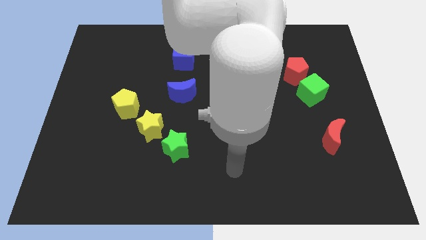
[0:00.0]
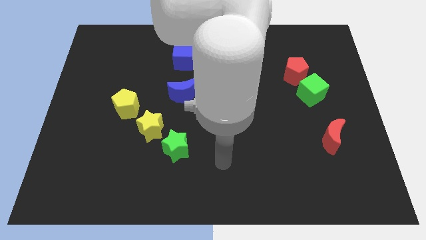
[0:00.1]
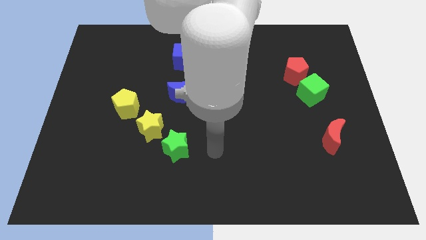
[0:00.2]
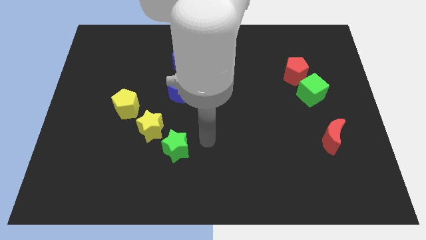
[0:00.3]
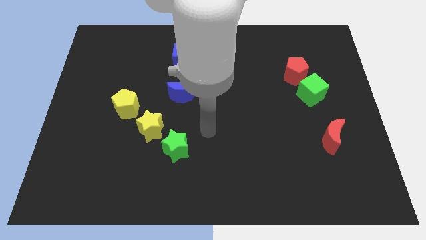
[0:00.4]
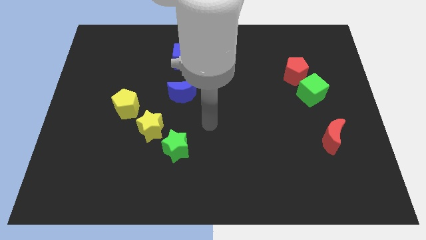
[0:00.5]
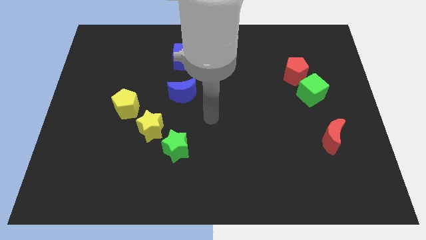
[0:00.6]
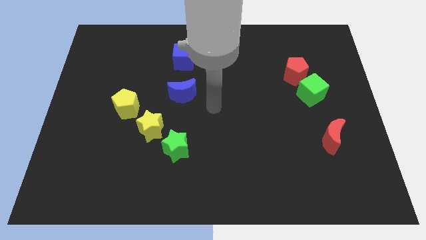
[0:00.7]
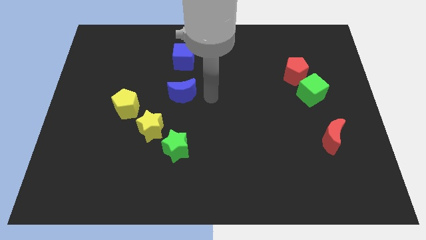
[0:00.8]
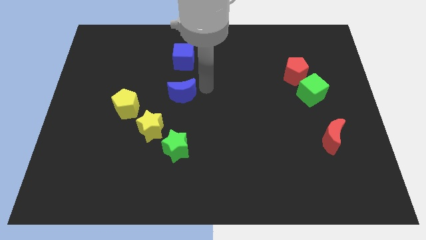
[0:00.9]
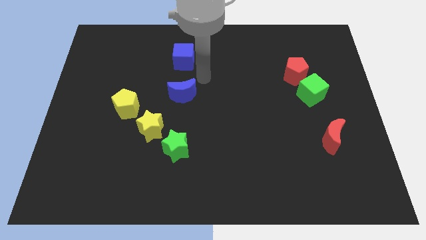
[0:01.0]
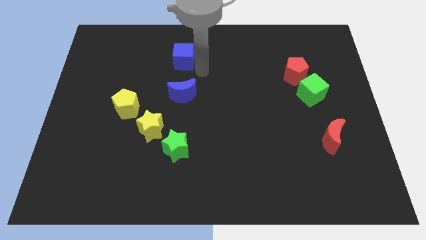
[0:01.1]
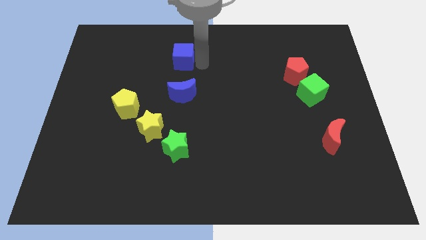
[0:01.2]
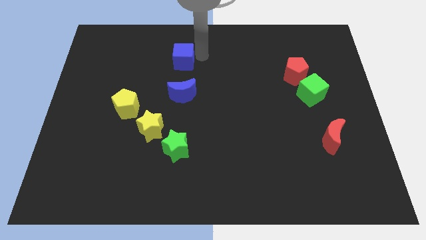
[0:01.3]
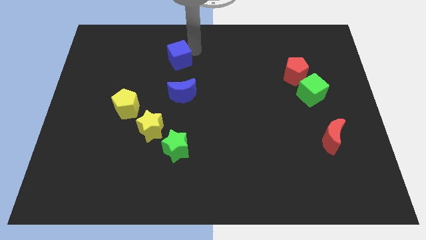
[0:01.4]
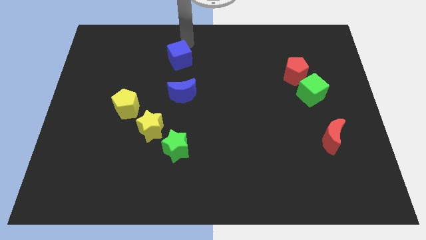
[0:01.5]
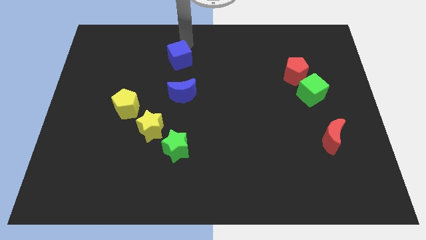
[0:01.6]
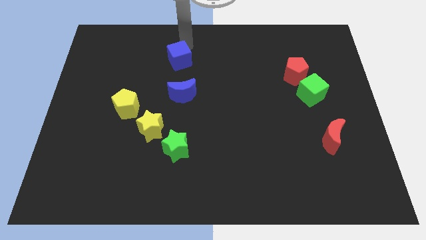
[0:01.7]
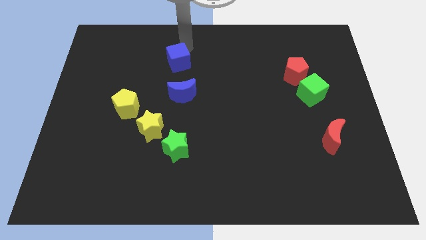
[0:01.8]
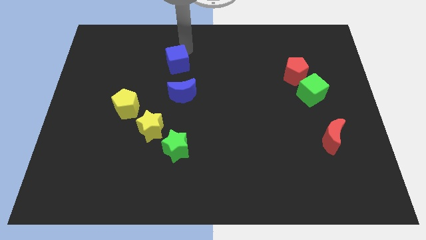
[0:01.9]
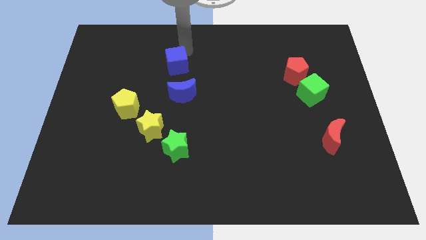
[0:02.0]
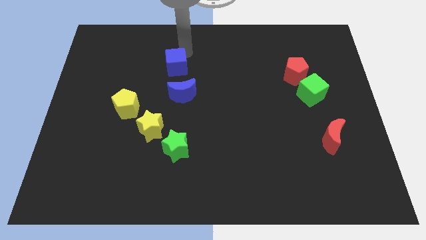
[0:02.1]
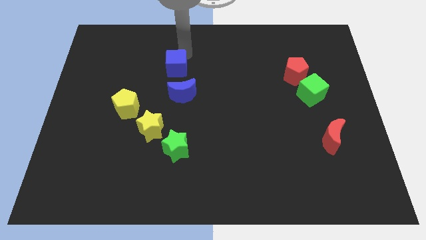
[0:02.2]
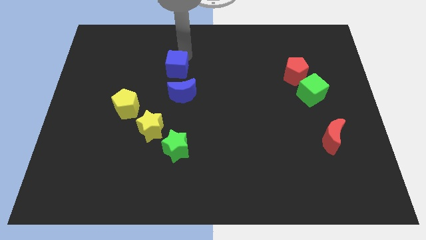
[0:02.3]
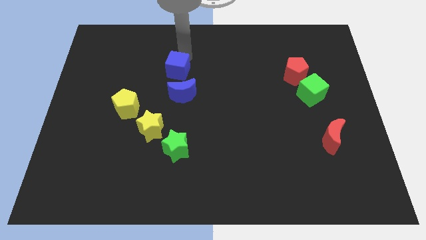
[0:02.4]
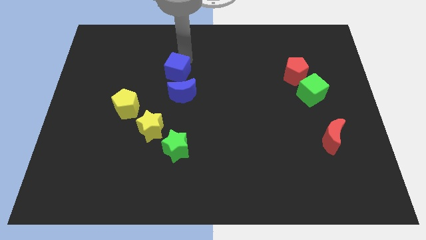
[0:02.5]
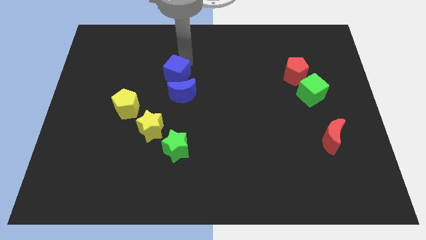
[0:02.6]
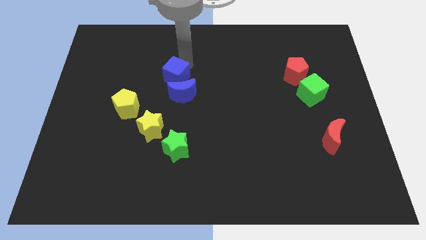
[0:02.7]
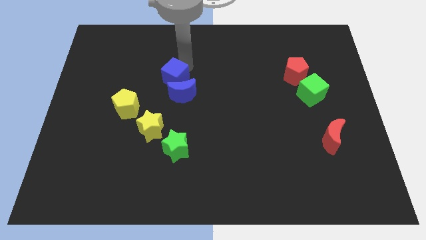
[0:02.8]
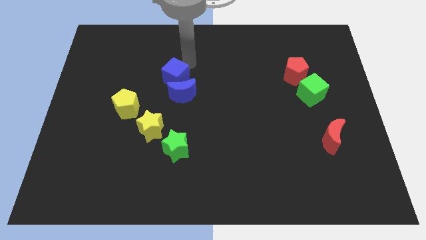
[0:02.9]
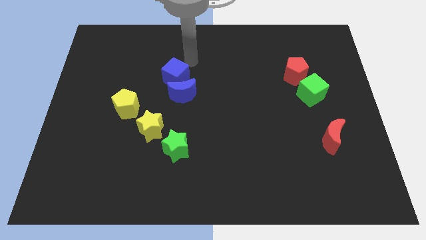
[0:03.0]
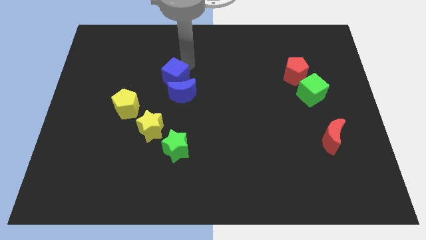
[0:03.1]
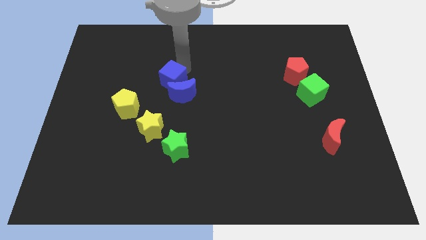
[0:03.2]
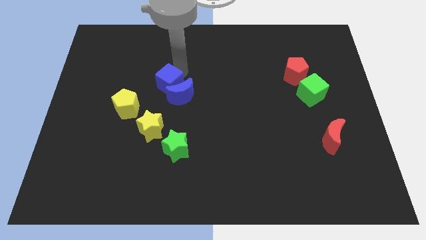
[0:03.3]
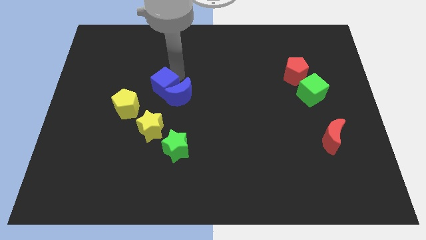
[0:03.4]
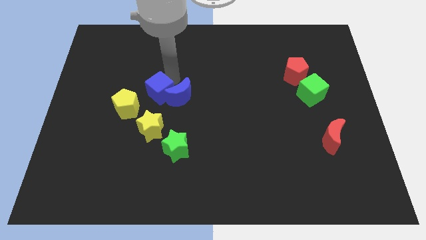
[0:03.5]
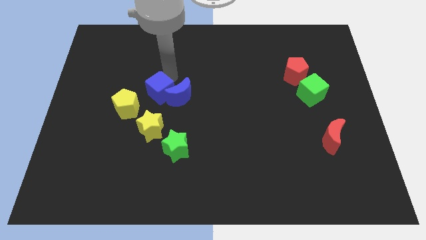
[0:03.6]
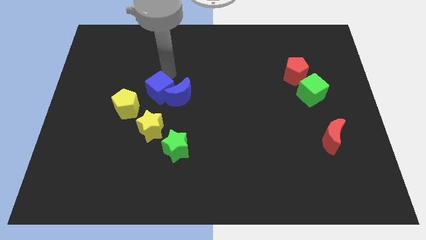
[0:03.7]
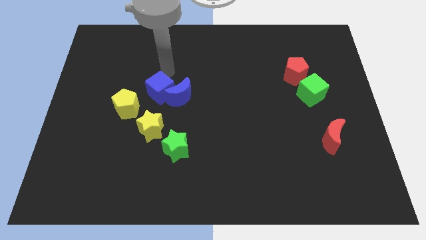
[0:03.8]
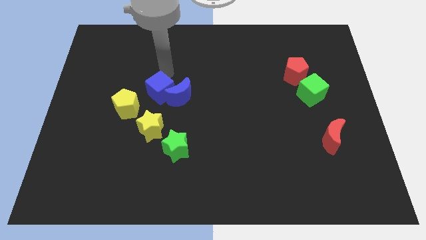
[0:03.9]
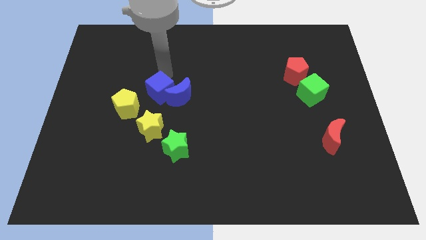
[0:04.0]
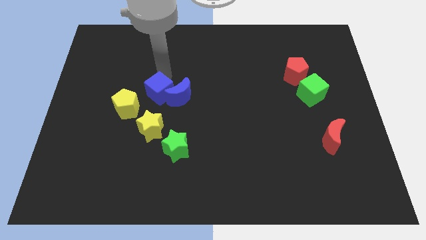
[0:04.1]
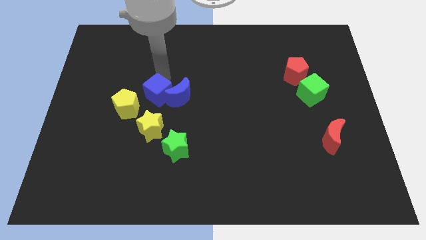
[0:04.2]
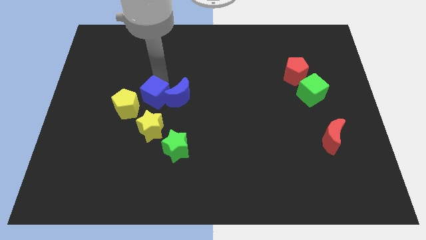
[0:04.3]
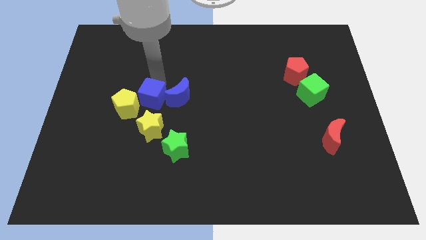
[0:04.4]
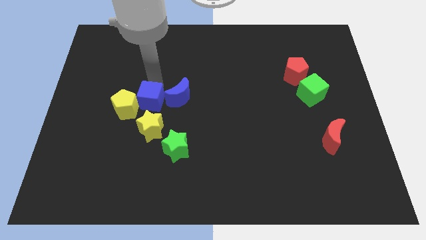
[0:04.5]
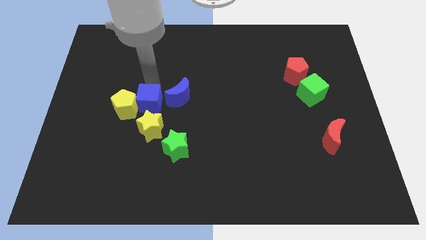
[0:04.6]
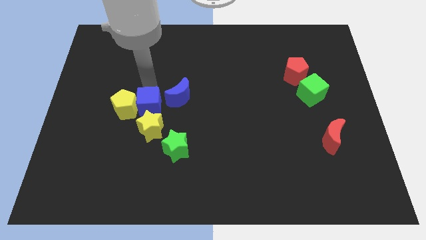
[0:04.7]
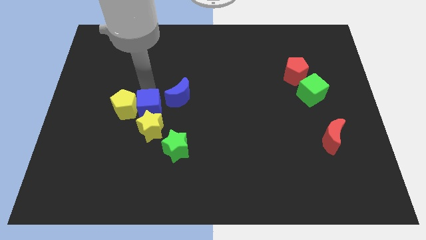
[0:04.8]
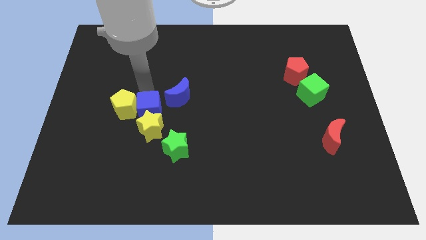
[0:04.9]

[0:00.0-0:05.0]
push the blue cube to the yellow star

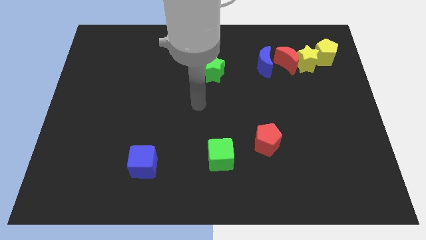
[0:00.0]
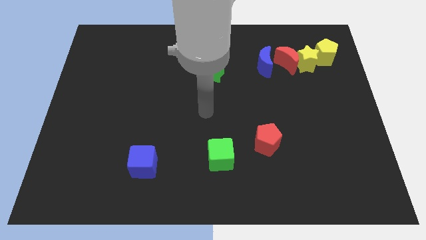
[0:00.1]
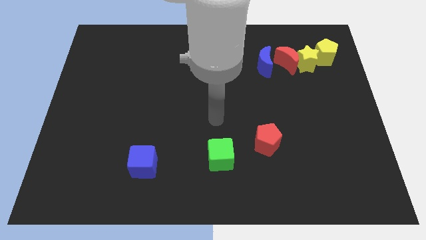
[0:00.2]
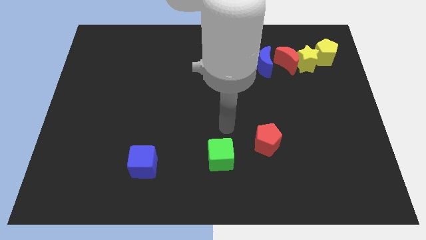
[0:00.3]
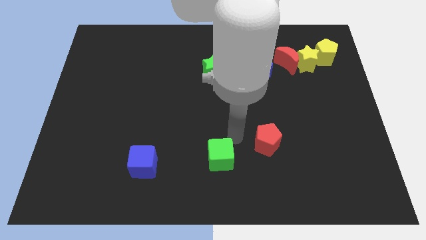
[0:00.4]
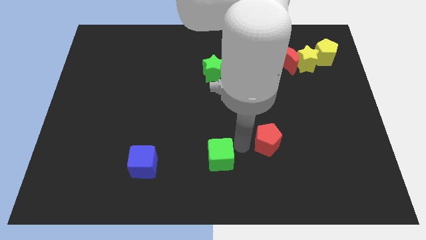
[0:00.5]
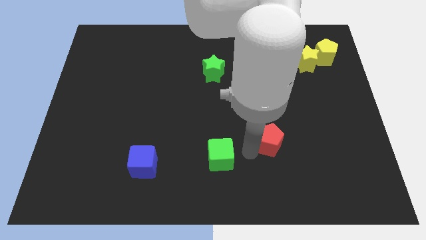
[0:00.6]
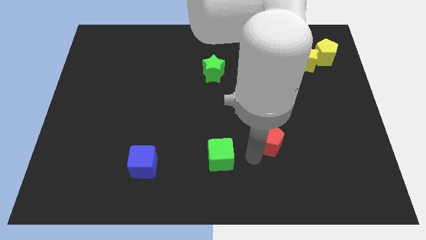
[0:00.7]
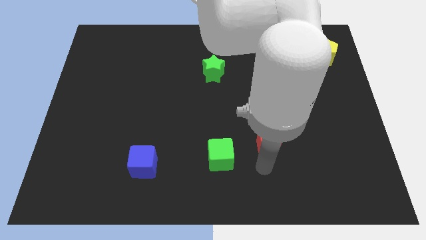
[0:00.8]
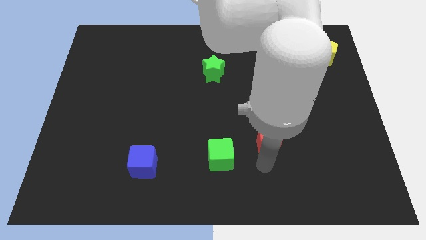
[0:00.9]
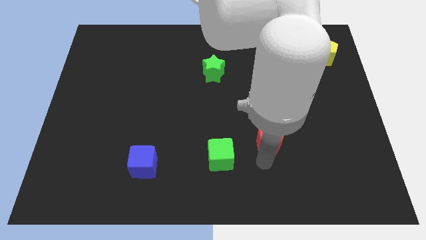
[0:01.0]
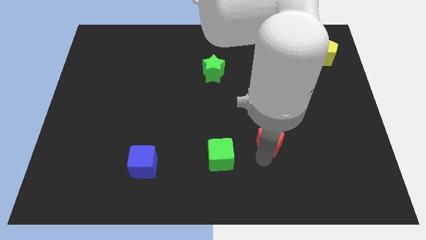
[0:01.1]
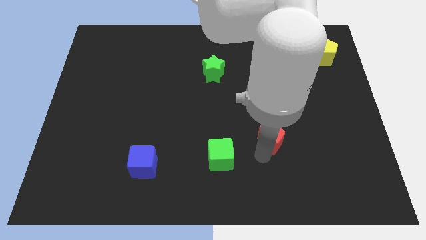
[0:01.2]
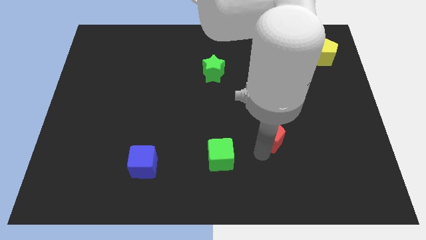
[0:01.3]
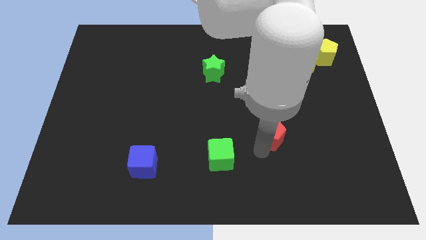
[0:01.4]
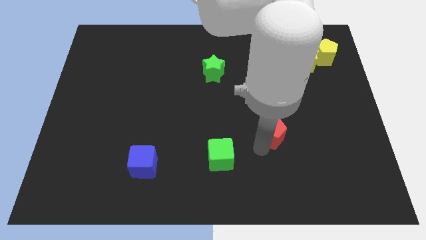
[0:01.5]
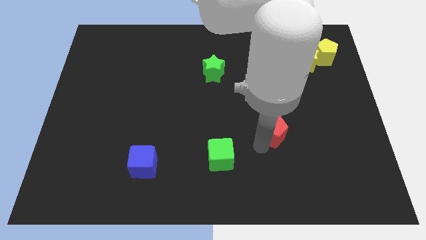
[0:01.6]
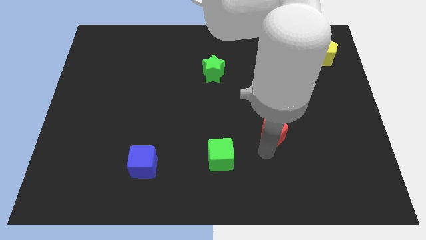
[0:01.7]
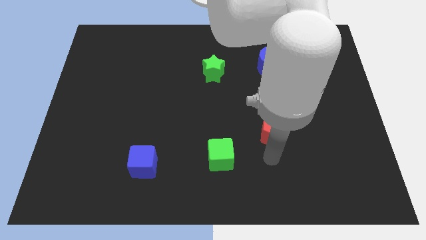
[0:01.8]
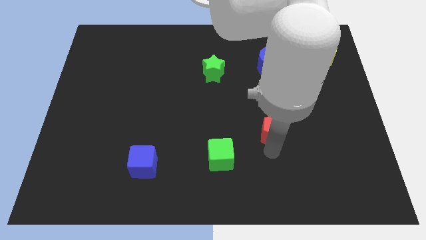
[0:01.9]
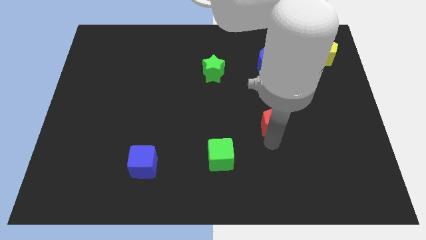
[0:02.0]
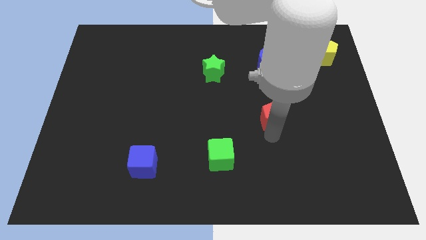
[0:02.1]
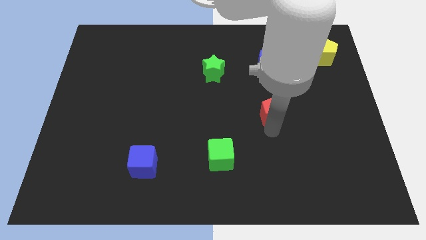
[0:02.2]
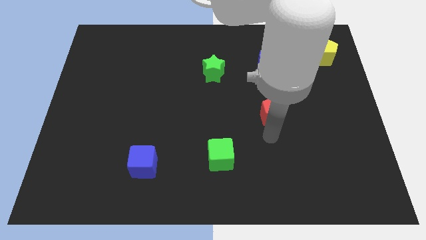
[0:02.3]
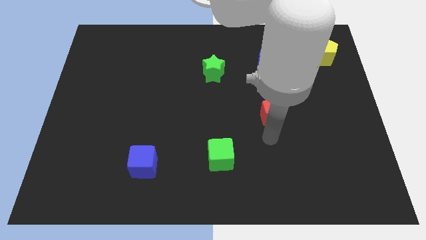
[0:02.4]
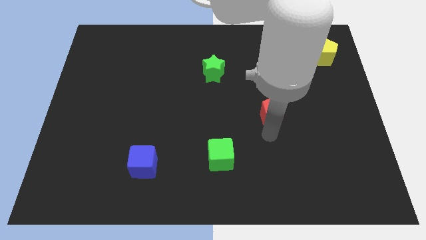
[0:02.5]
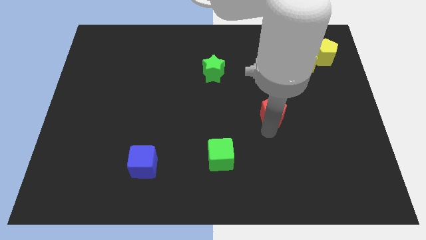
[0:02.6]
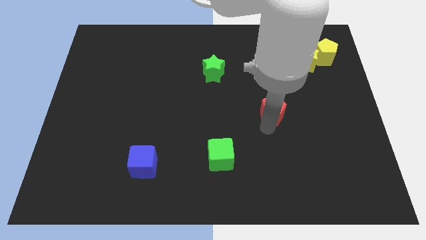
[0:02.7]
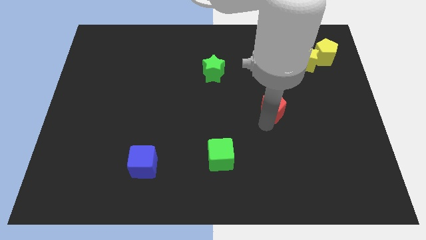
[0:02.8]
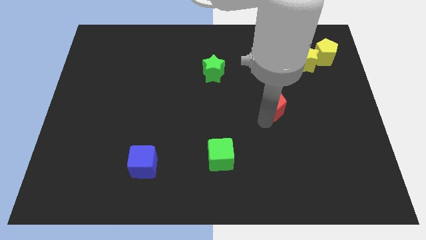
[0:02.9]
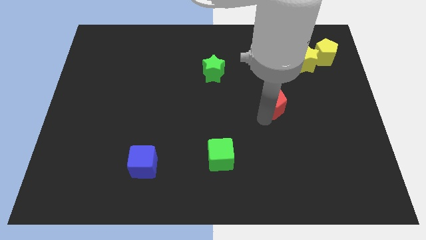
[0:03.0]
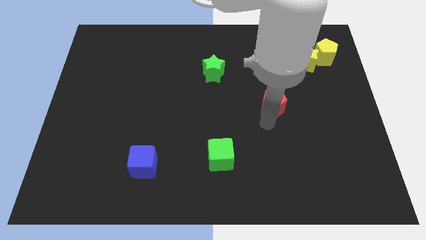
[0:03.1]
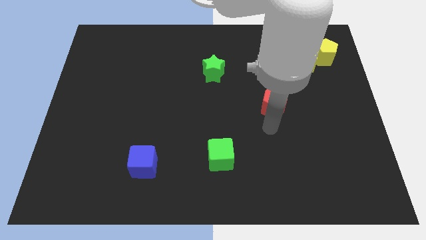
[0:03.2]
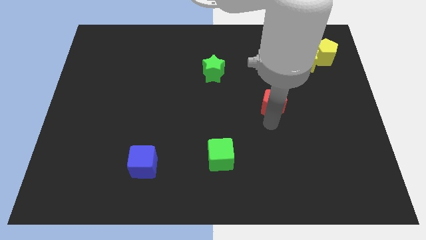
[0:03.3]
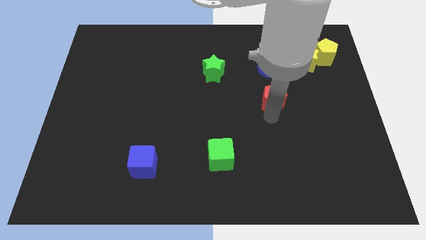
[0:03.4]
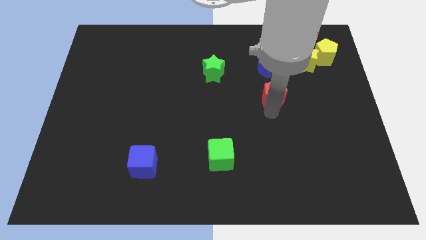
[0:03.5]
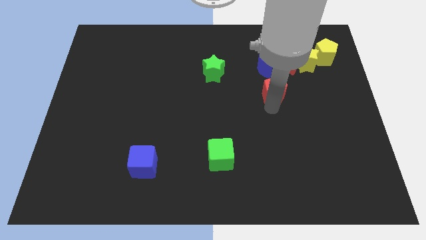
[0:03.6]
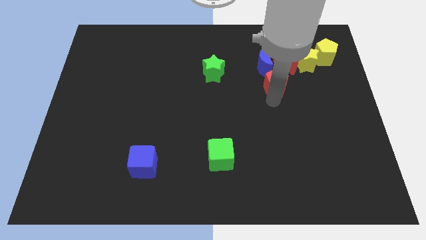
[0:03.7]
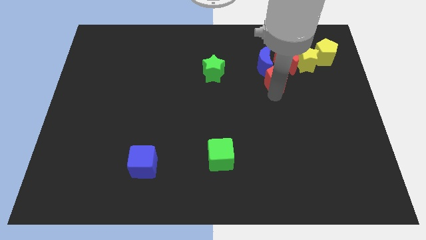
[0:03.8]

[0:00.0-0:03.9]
slide the red pentagon towards the blue moon
